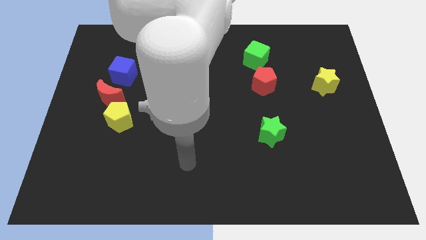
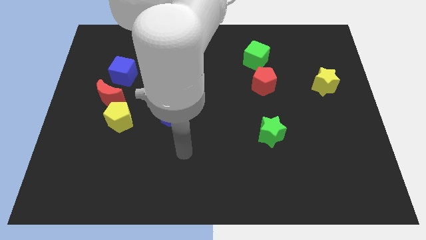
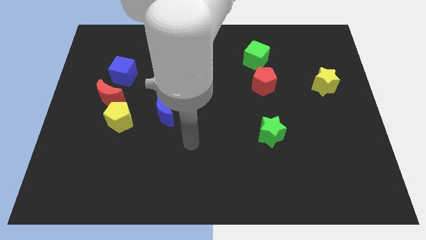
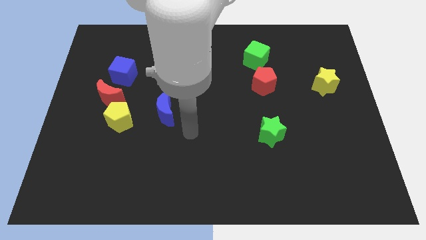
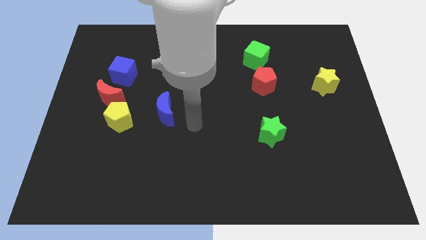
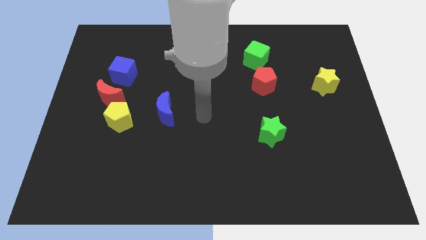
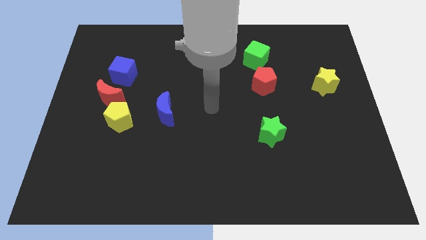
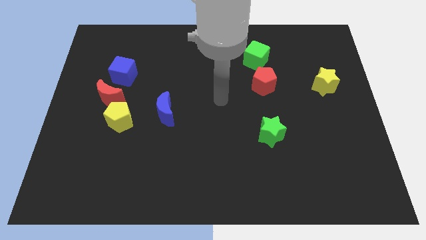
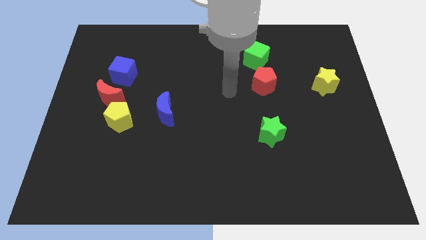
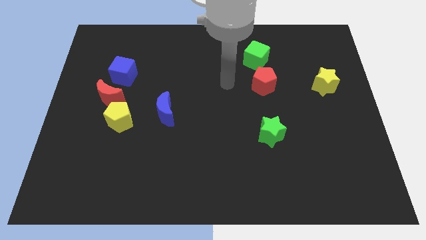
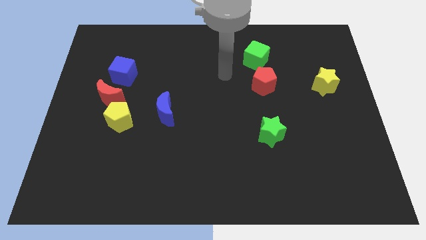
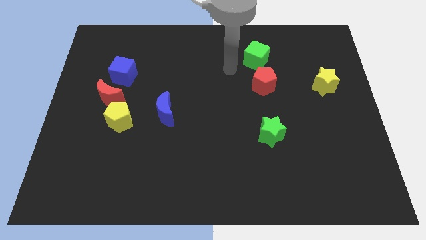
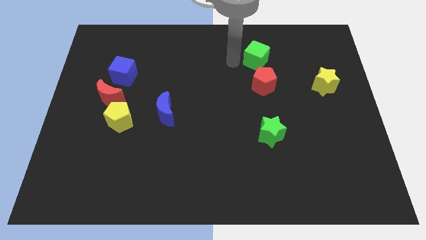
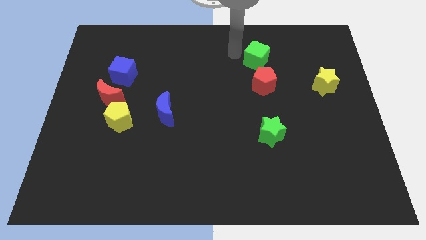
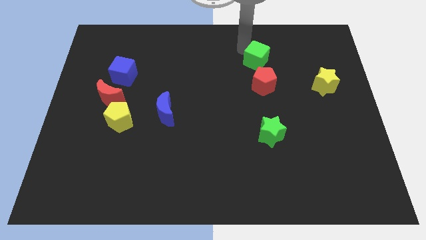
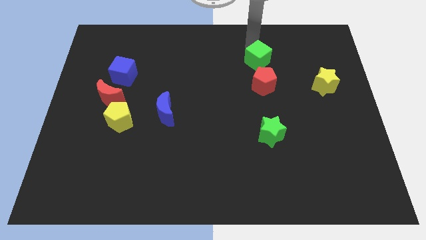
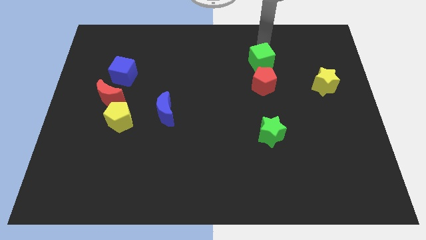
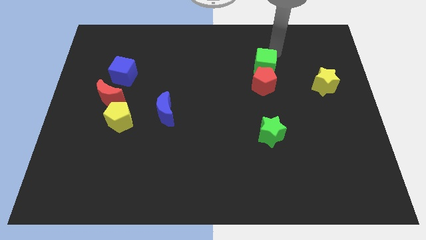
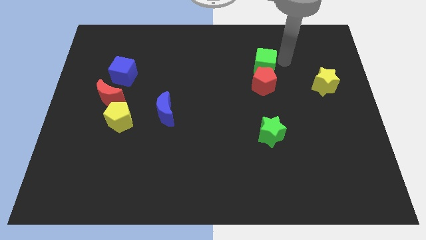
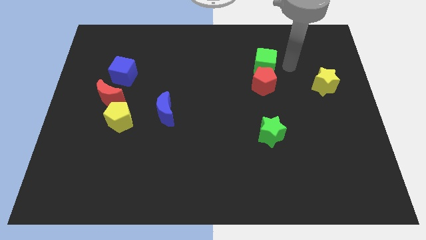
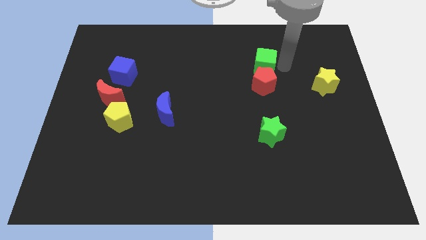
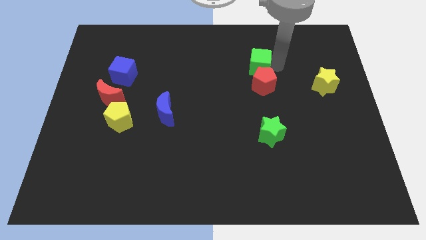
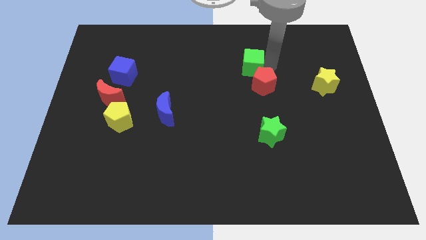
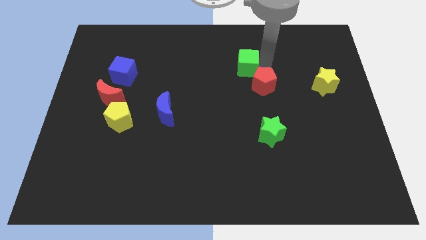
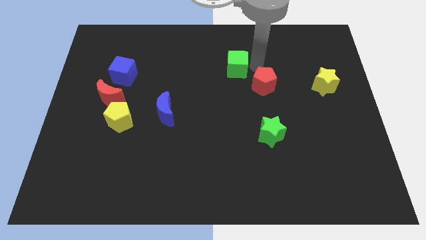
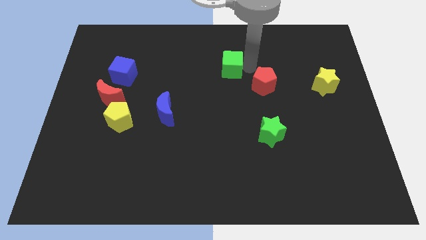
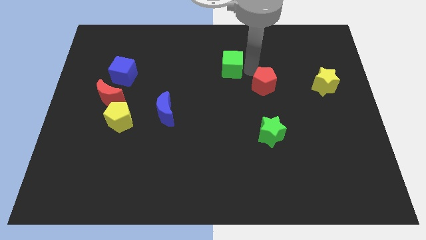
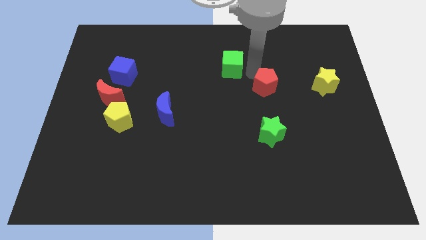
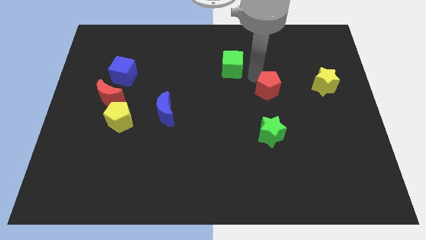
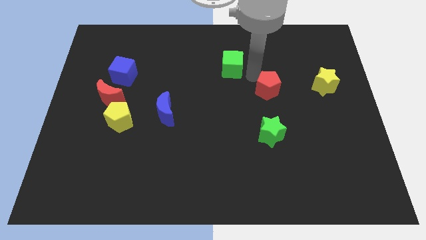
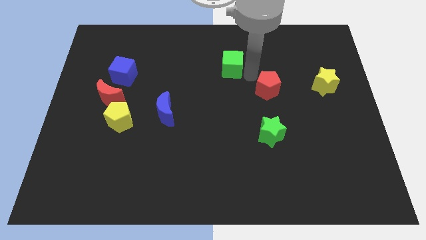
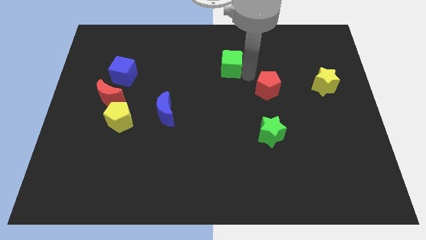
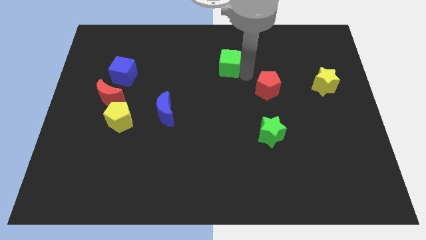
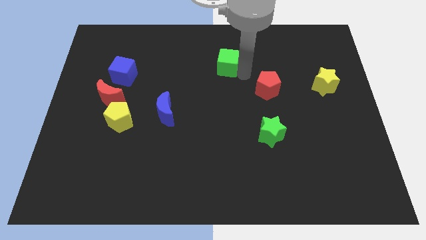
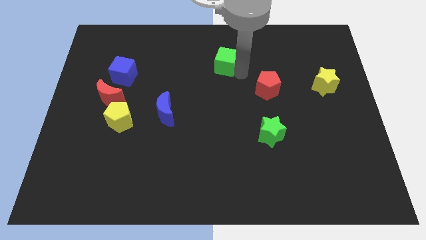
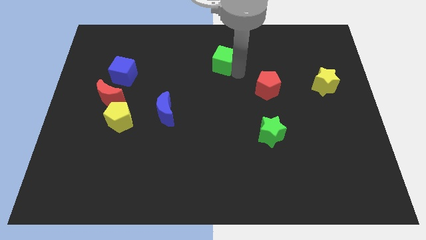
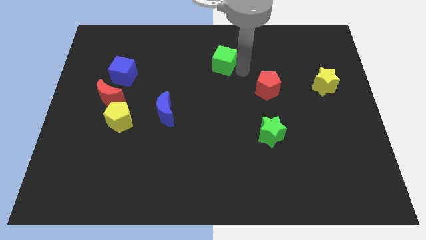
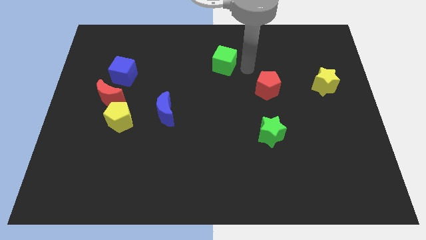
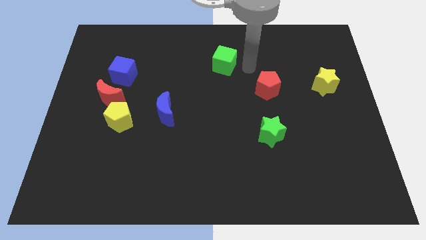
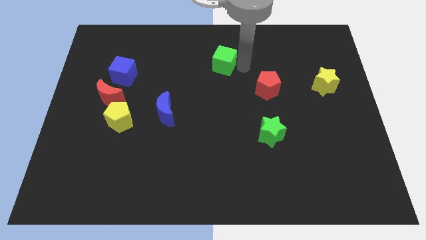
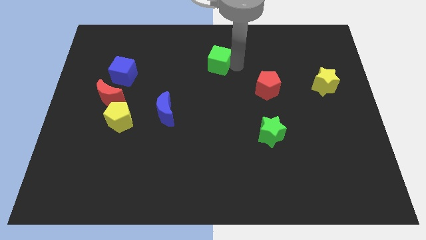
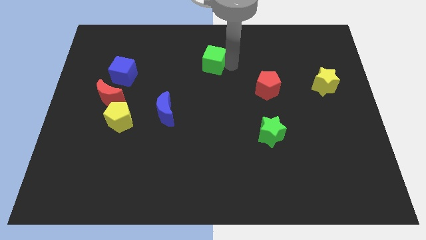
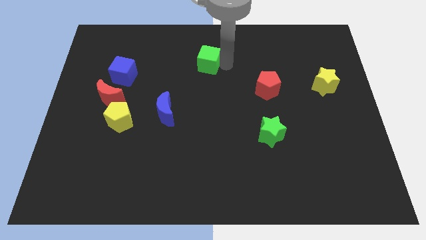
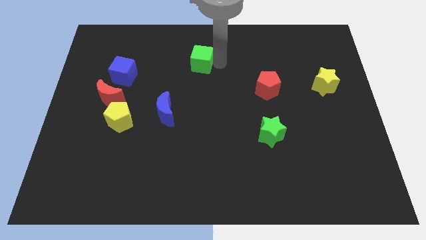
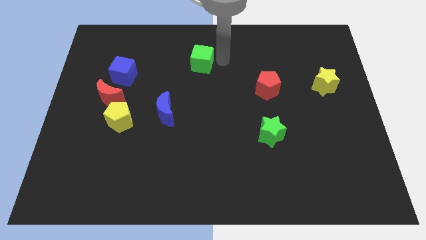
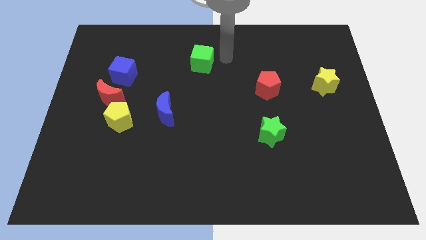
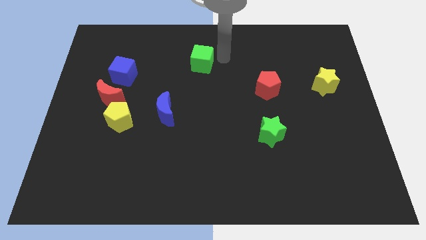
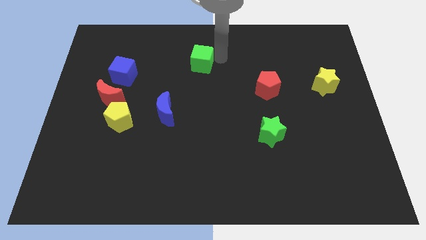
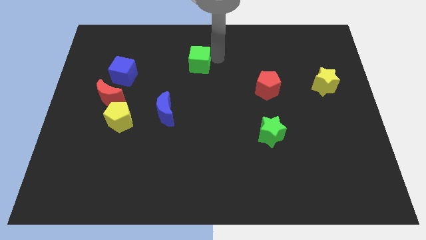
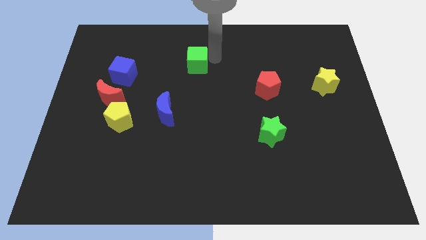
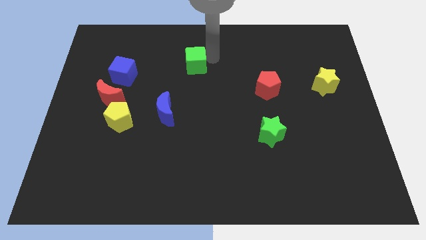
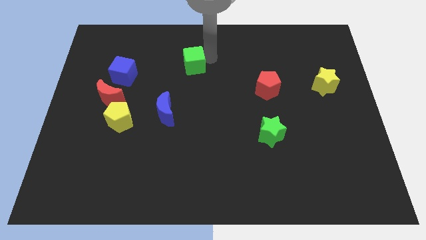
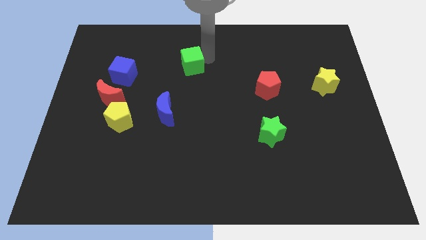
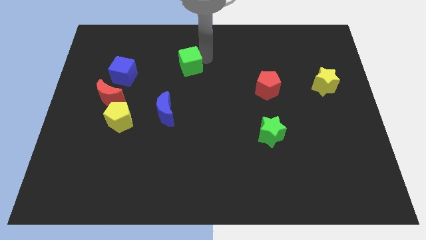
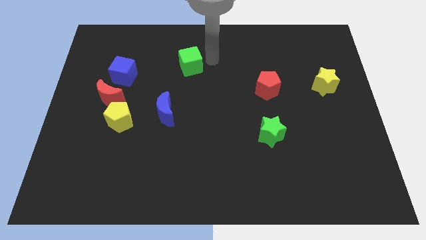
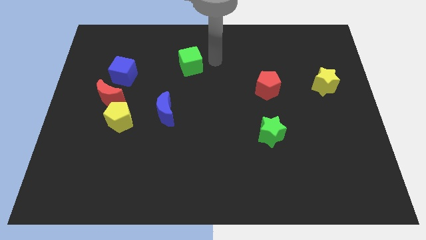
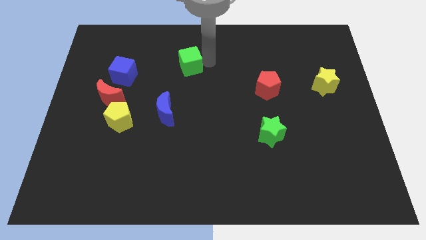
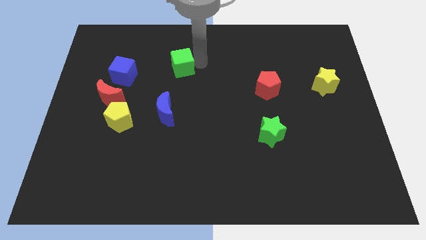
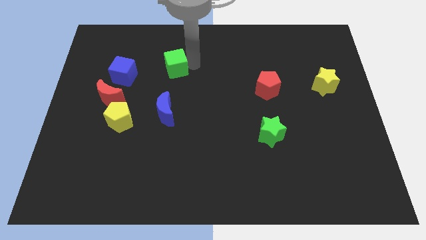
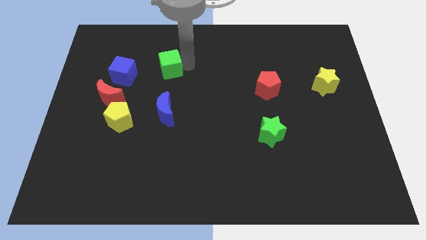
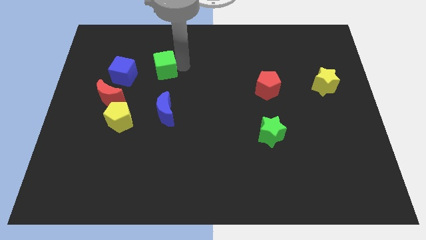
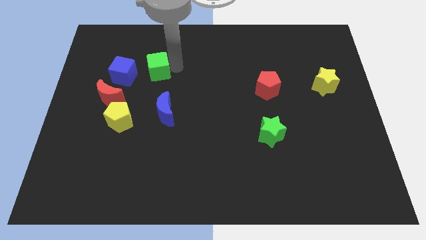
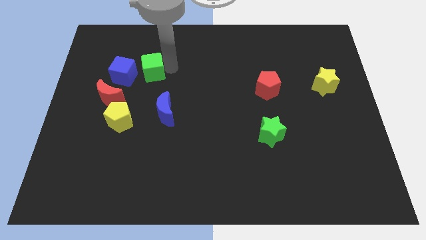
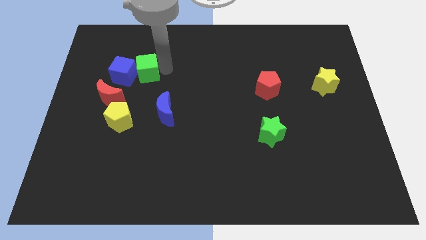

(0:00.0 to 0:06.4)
move the green cube to the blue cube

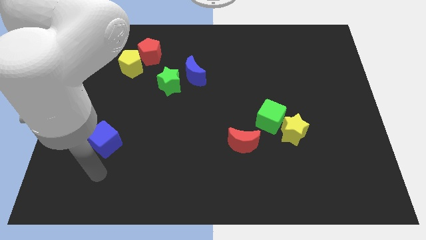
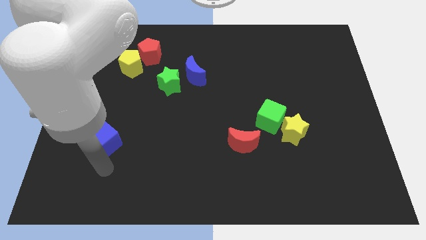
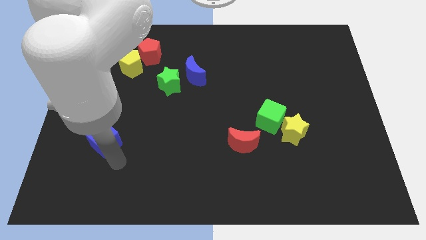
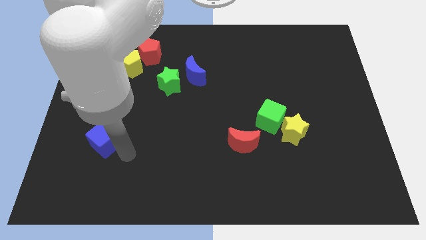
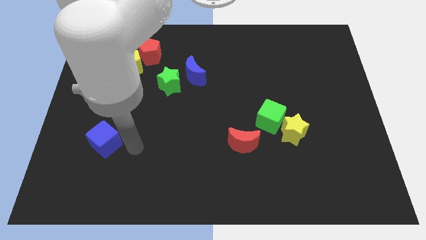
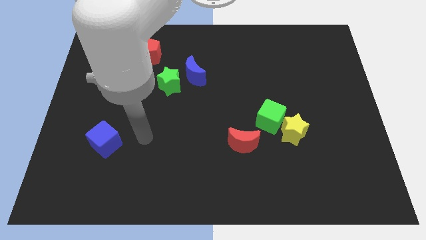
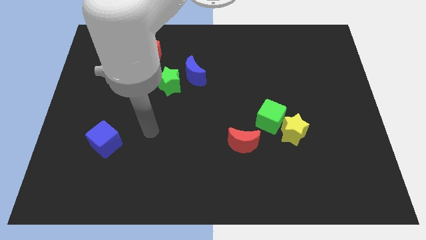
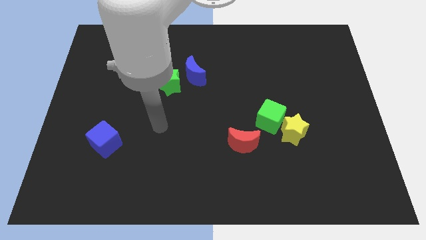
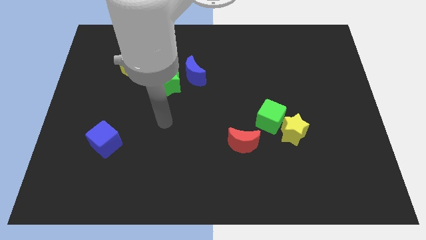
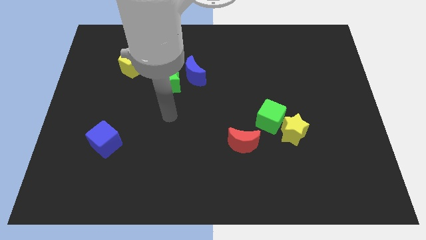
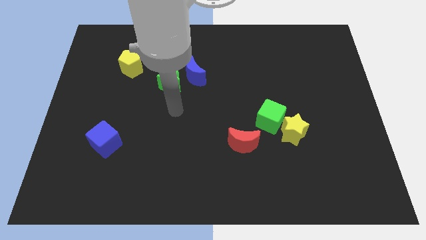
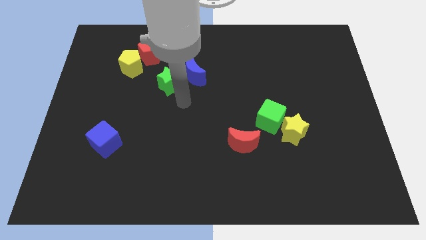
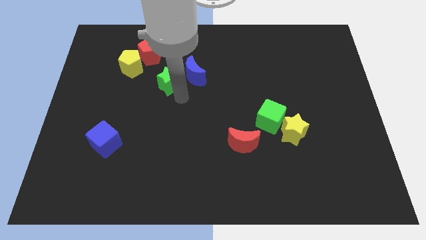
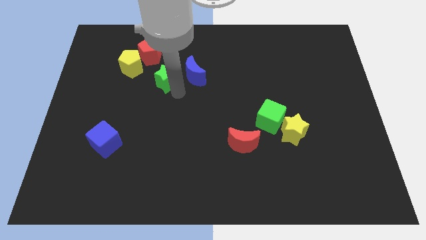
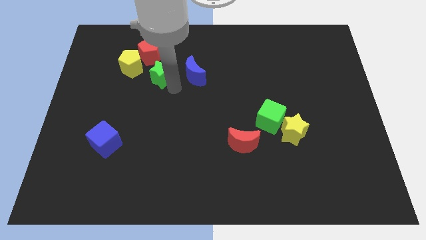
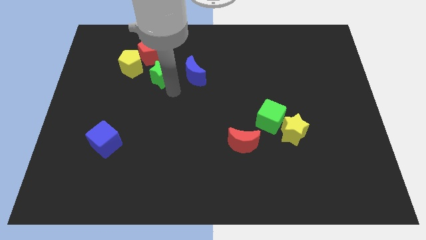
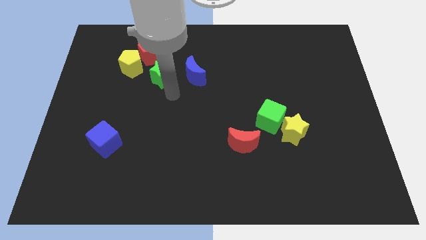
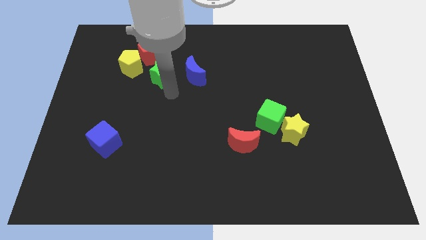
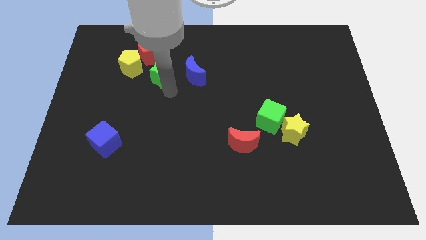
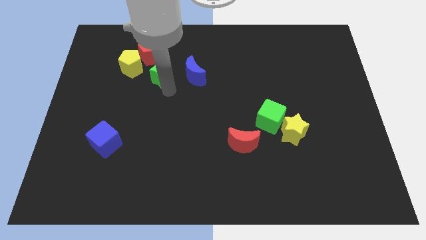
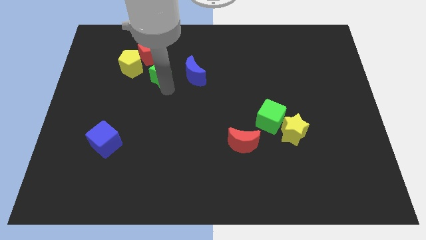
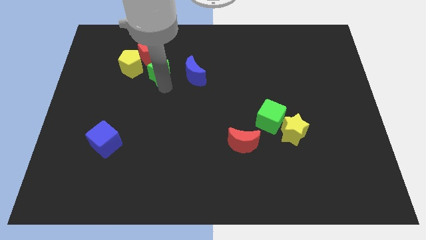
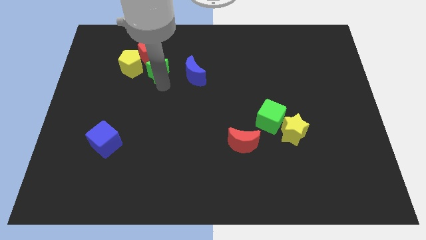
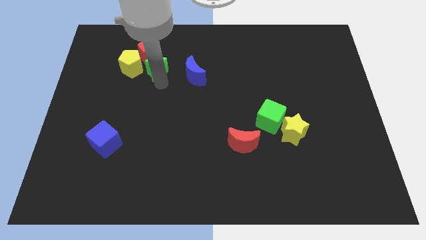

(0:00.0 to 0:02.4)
move the green star close to the red pentagon
